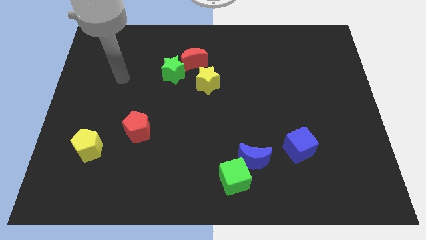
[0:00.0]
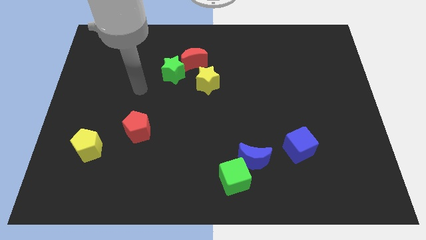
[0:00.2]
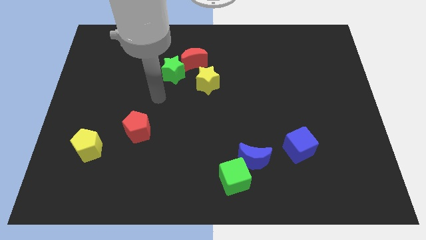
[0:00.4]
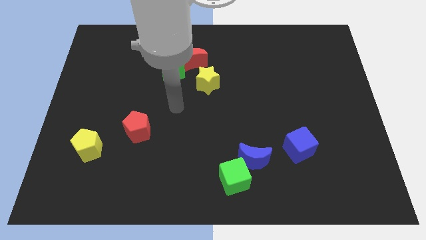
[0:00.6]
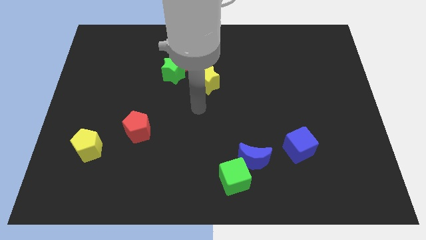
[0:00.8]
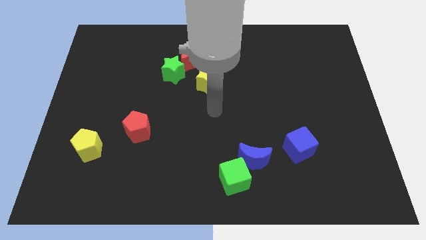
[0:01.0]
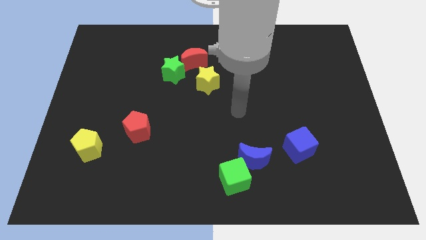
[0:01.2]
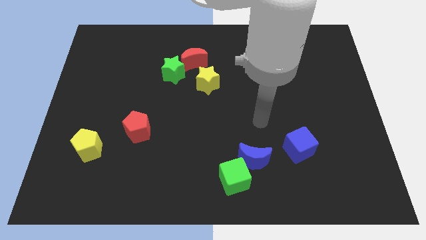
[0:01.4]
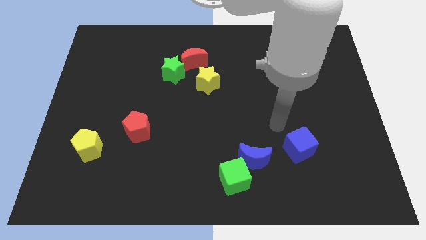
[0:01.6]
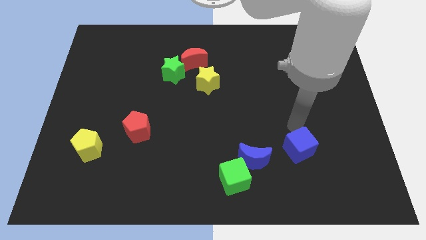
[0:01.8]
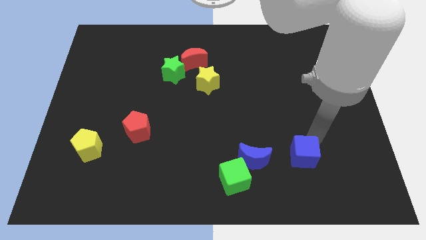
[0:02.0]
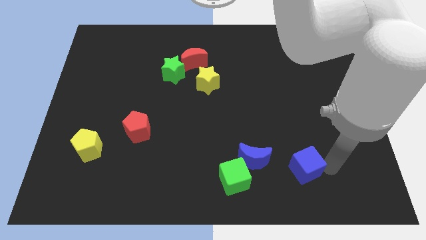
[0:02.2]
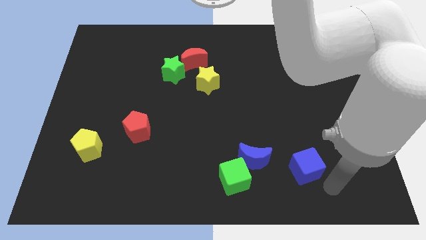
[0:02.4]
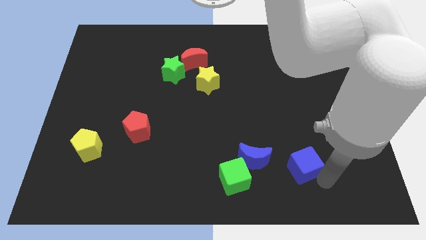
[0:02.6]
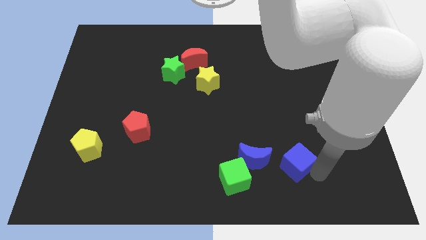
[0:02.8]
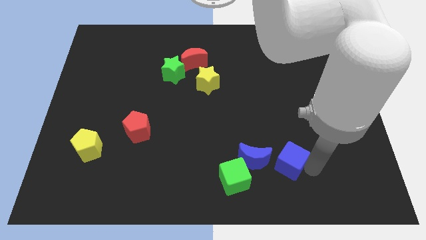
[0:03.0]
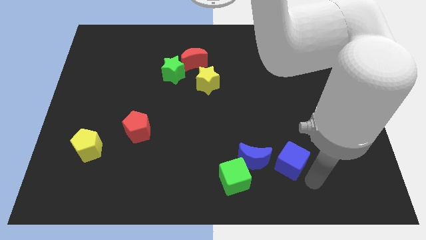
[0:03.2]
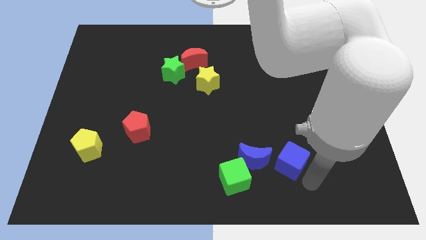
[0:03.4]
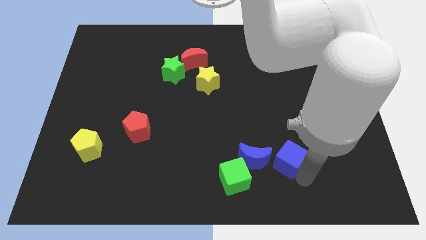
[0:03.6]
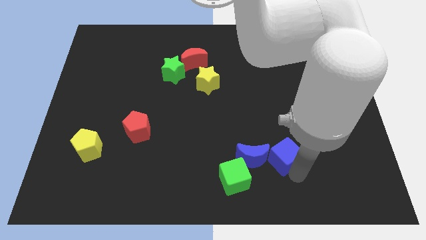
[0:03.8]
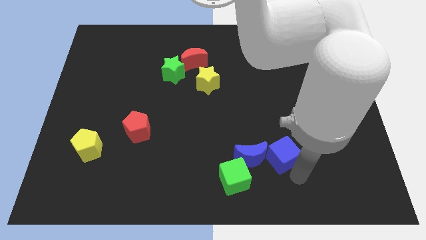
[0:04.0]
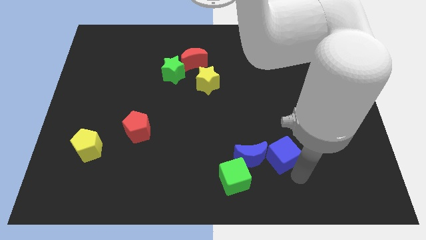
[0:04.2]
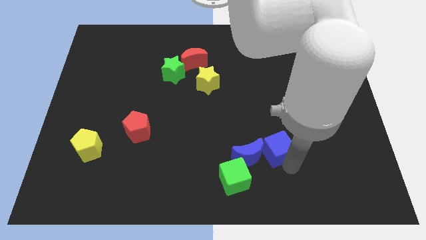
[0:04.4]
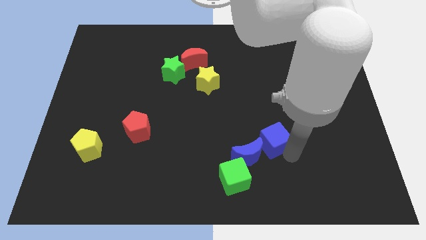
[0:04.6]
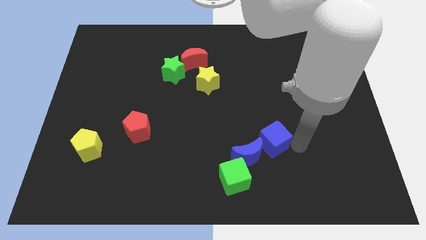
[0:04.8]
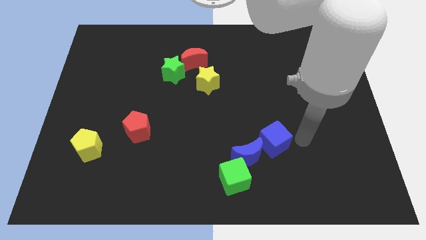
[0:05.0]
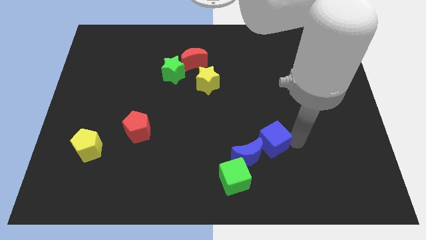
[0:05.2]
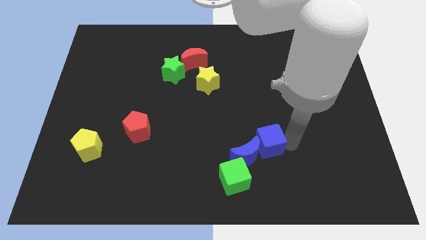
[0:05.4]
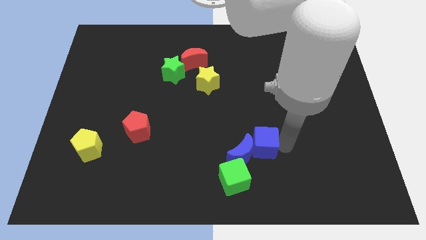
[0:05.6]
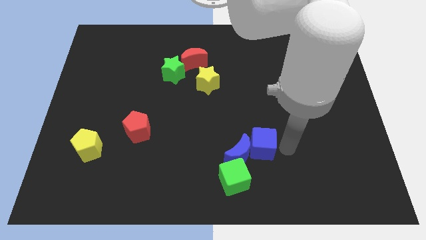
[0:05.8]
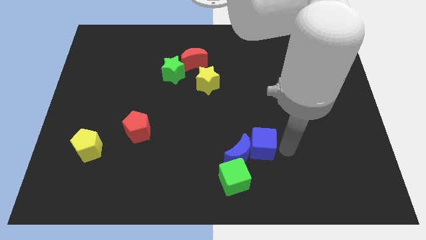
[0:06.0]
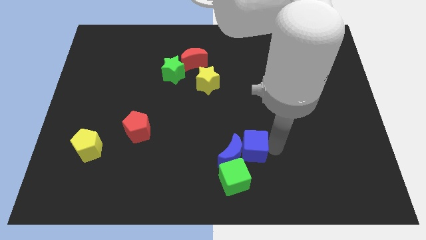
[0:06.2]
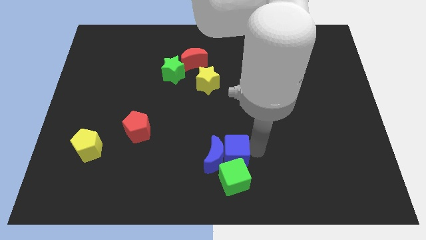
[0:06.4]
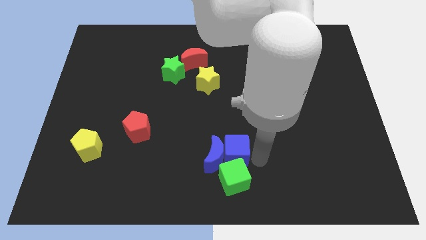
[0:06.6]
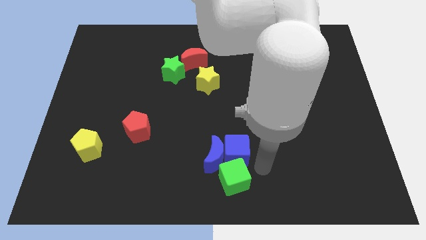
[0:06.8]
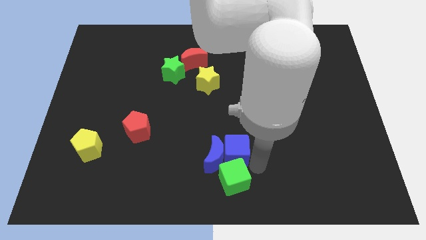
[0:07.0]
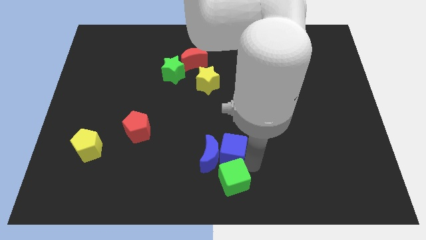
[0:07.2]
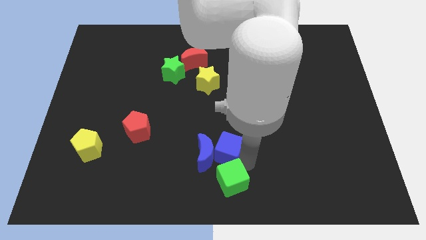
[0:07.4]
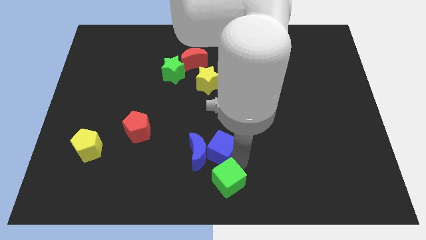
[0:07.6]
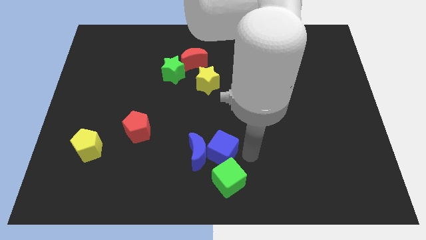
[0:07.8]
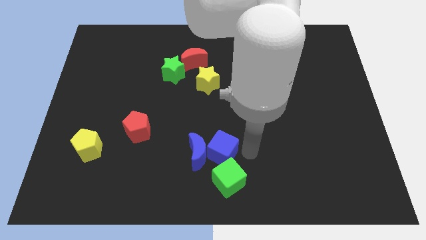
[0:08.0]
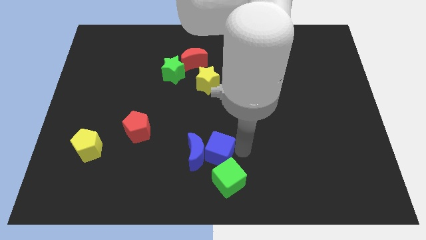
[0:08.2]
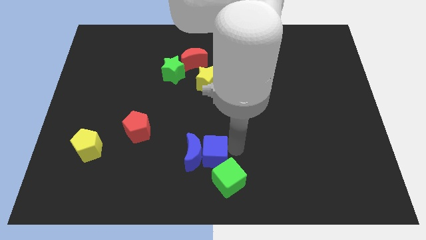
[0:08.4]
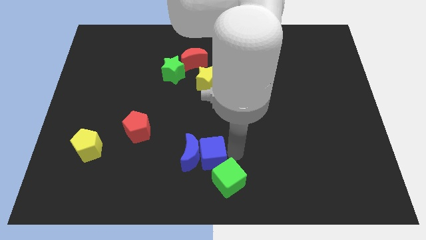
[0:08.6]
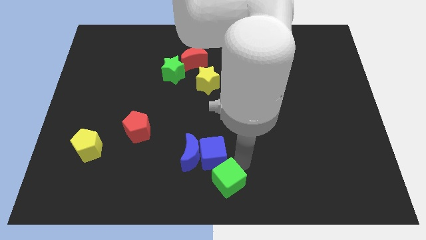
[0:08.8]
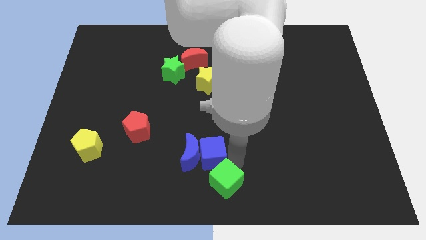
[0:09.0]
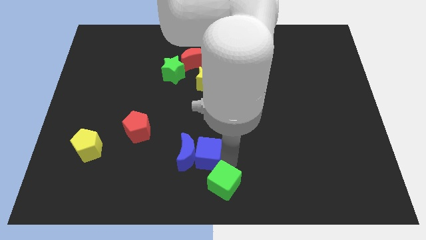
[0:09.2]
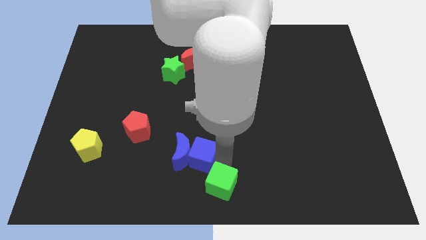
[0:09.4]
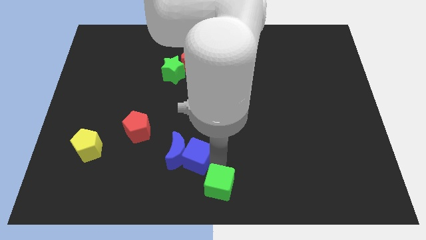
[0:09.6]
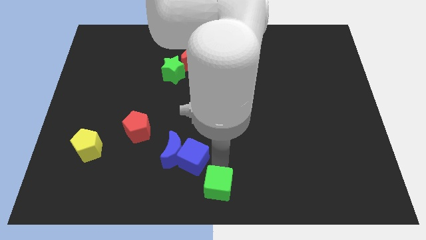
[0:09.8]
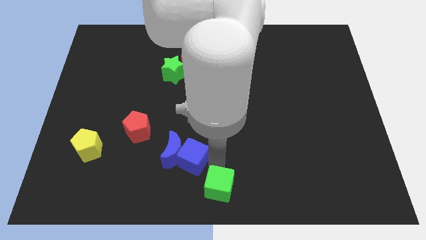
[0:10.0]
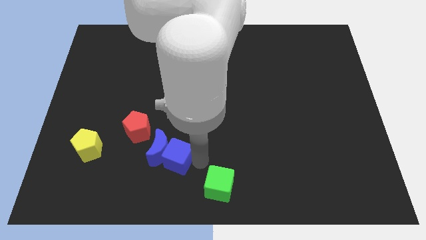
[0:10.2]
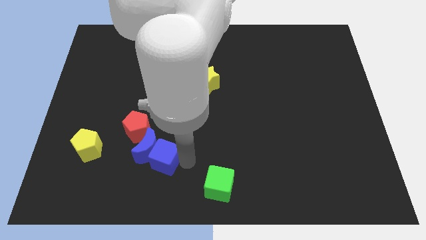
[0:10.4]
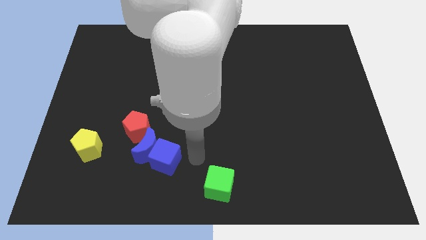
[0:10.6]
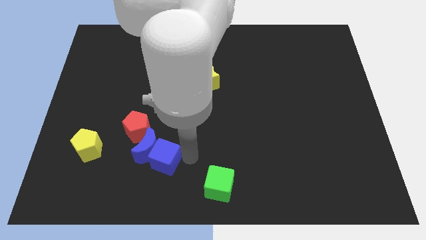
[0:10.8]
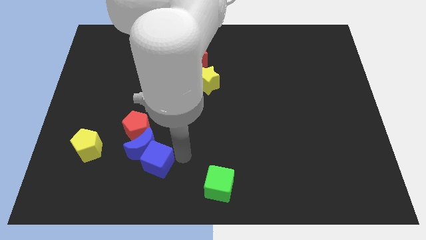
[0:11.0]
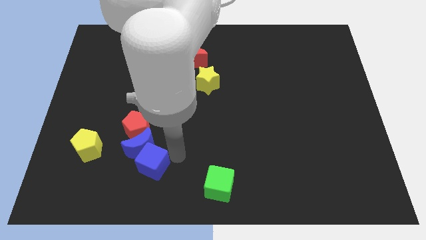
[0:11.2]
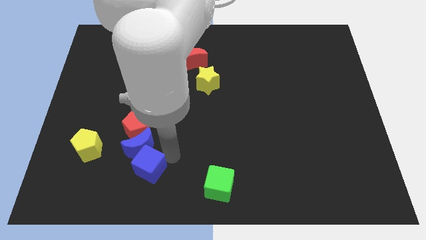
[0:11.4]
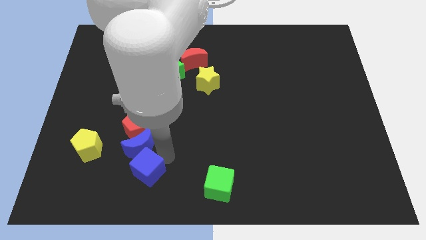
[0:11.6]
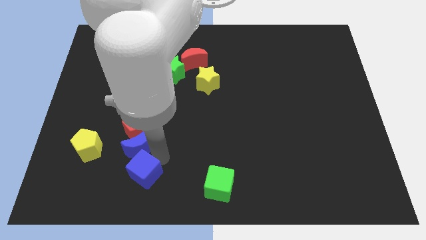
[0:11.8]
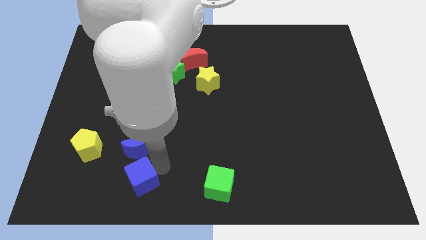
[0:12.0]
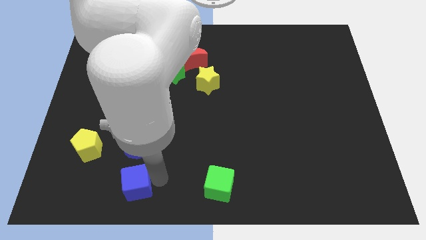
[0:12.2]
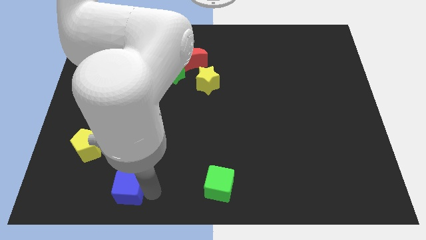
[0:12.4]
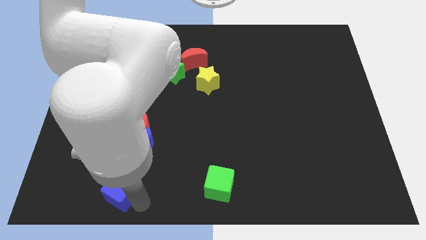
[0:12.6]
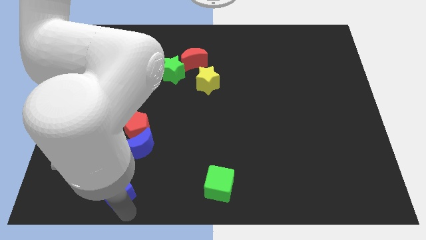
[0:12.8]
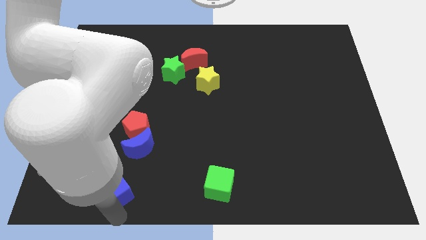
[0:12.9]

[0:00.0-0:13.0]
slide the blue cube to the bottom right of the yellow pentagon
